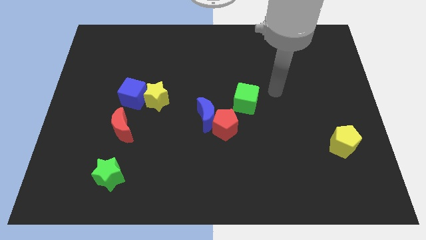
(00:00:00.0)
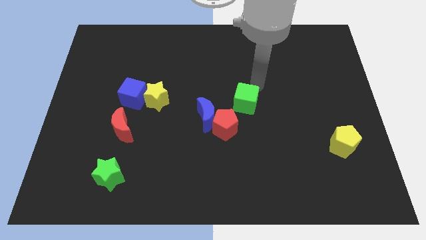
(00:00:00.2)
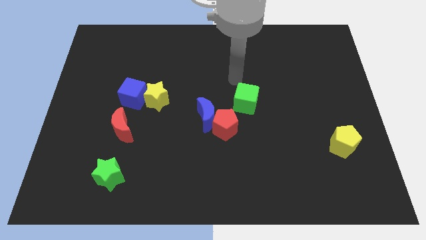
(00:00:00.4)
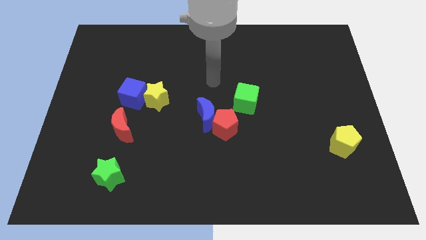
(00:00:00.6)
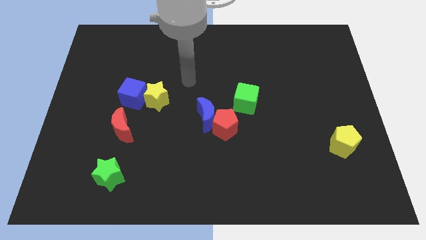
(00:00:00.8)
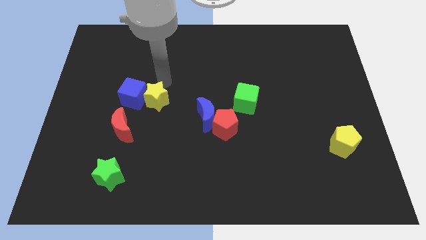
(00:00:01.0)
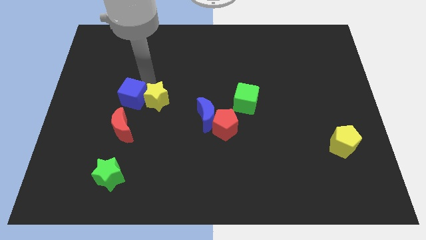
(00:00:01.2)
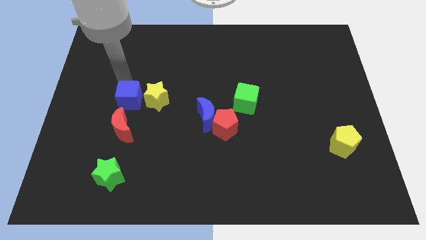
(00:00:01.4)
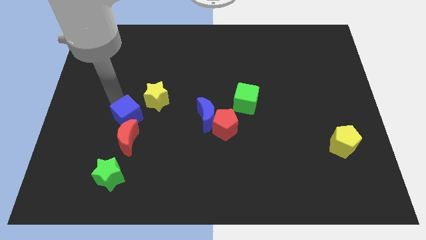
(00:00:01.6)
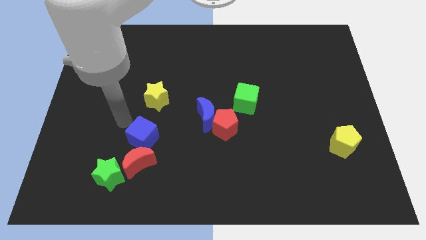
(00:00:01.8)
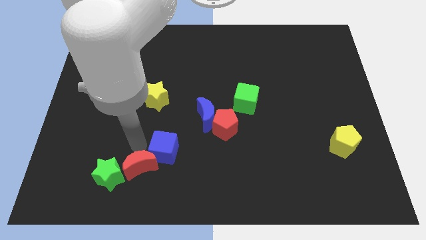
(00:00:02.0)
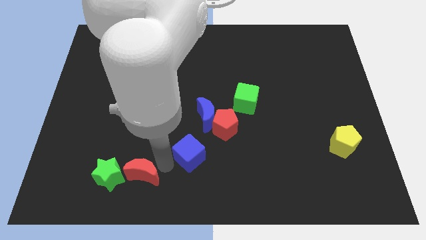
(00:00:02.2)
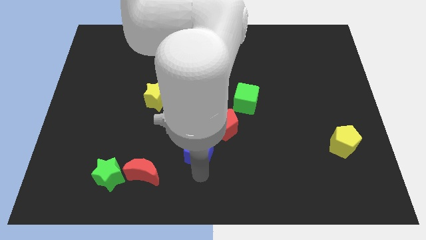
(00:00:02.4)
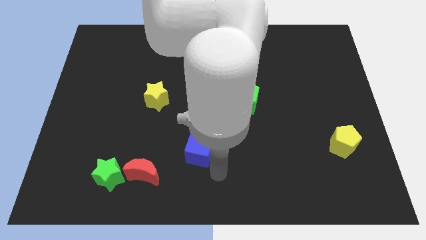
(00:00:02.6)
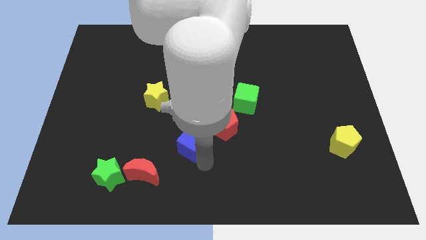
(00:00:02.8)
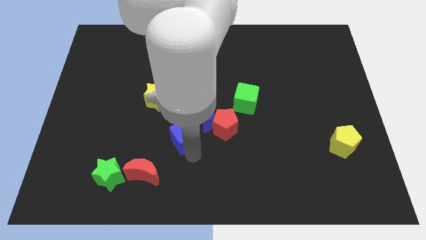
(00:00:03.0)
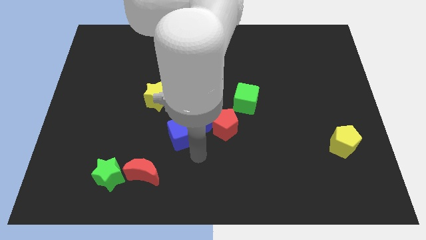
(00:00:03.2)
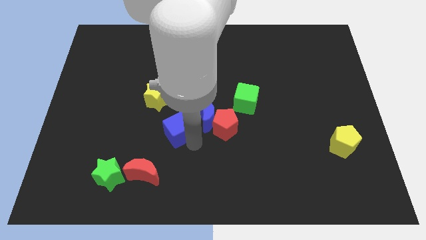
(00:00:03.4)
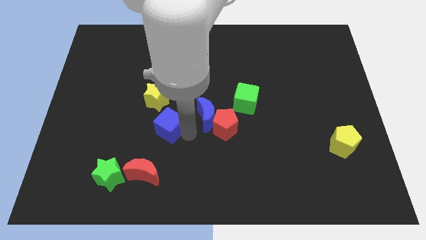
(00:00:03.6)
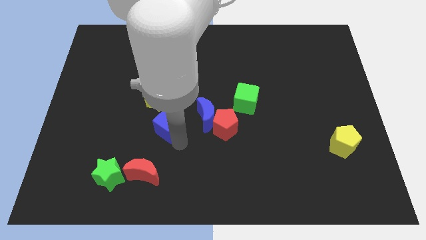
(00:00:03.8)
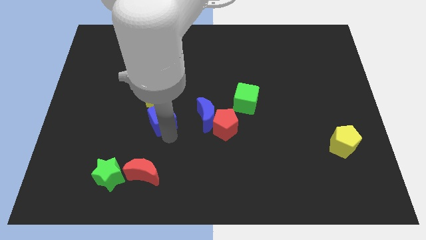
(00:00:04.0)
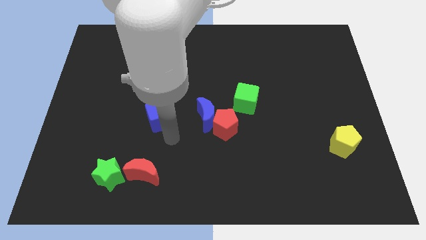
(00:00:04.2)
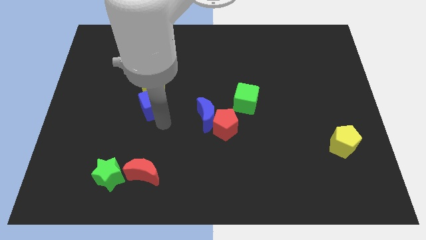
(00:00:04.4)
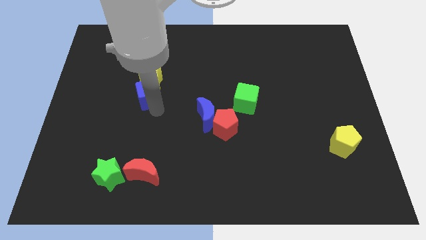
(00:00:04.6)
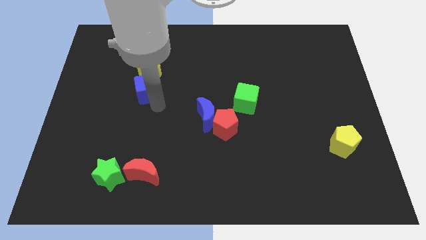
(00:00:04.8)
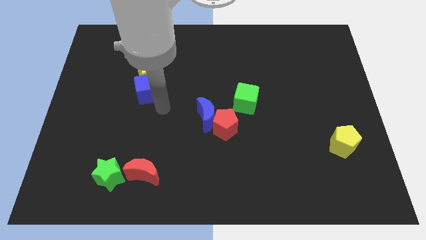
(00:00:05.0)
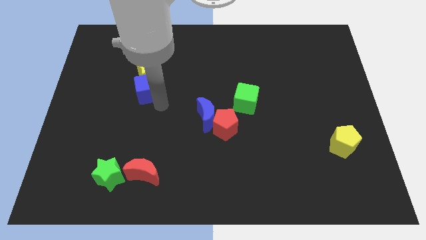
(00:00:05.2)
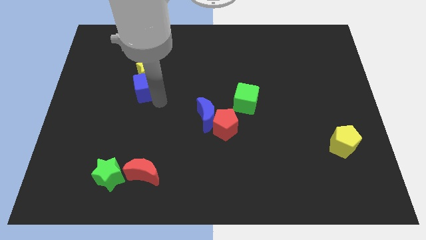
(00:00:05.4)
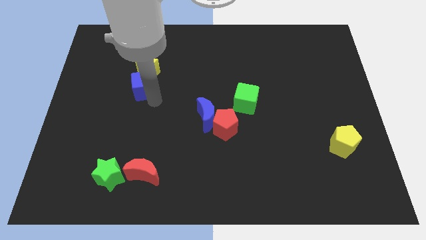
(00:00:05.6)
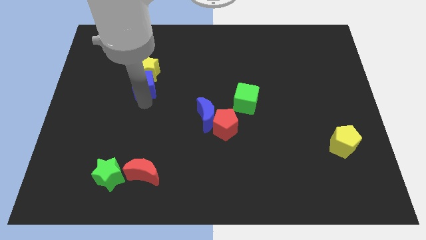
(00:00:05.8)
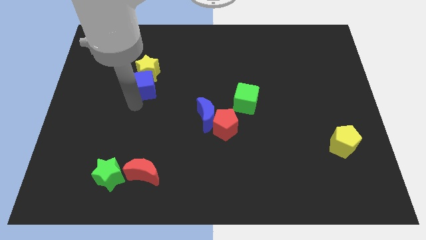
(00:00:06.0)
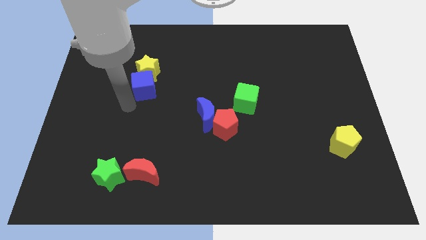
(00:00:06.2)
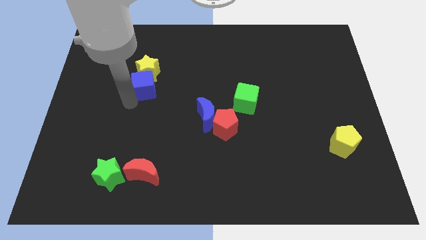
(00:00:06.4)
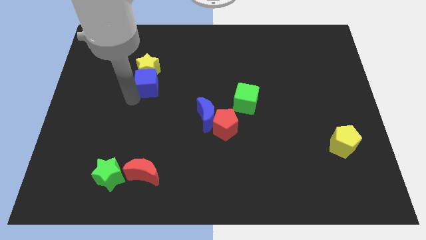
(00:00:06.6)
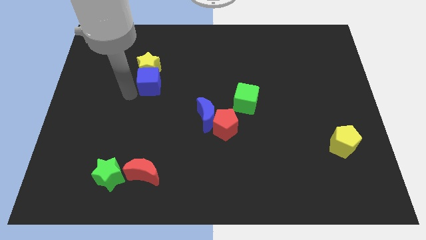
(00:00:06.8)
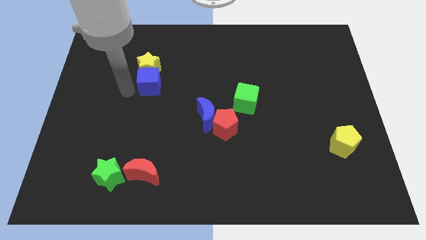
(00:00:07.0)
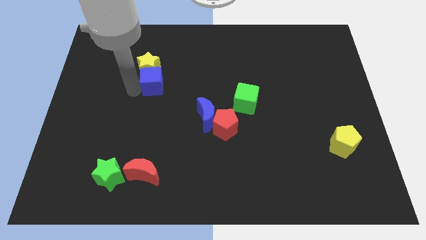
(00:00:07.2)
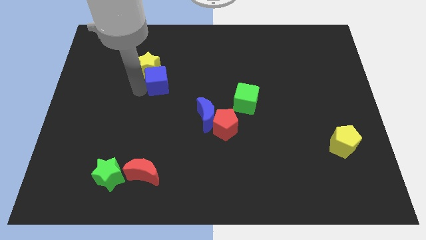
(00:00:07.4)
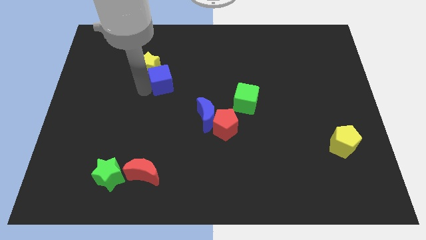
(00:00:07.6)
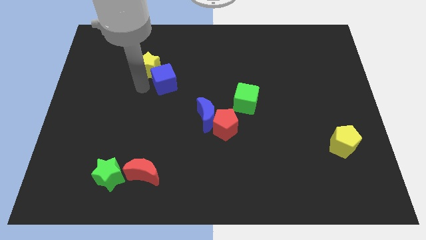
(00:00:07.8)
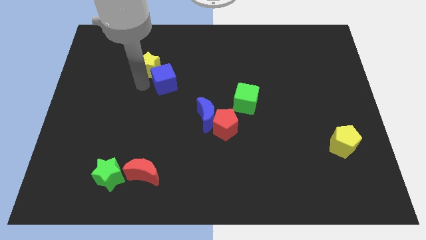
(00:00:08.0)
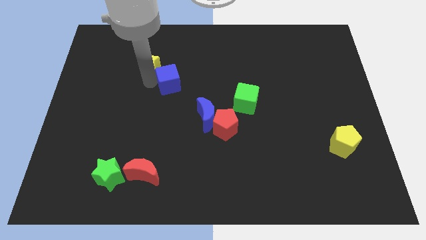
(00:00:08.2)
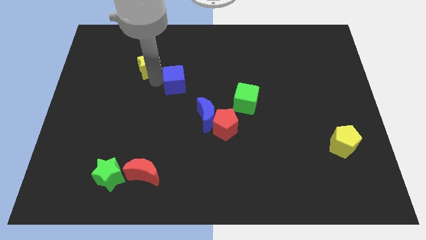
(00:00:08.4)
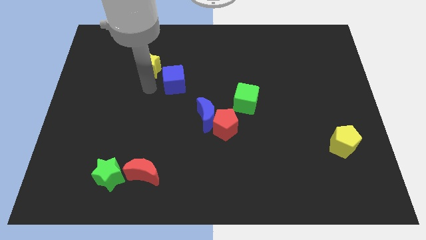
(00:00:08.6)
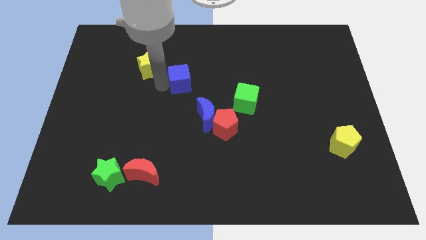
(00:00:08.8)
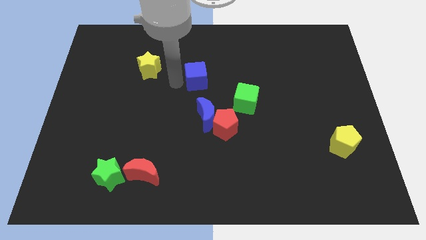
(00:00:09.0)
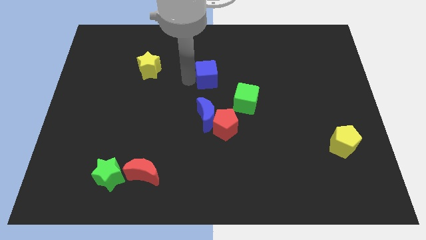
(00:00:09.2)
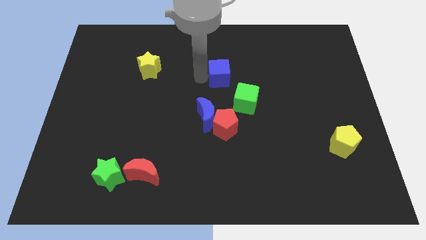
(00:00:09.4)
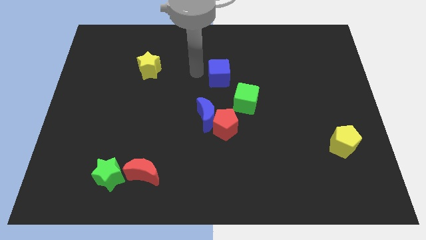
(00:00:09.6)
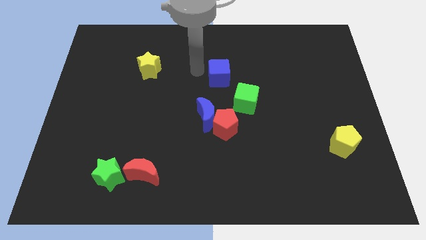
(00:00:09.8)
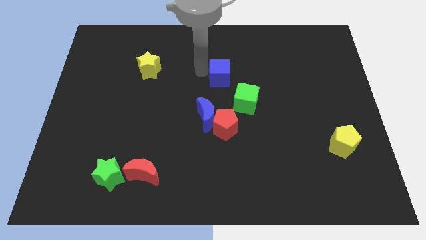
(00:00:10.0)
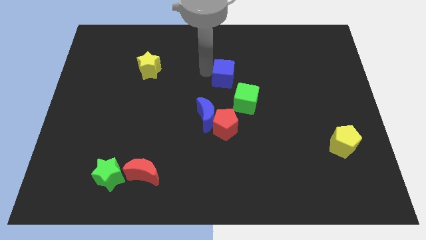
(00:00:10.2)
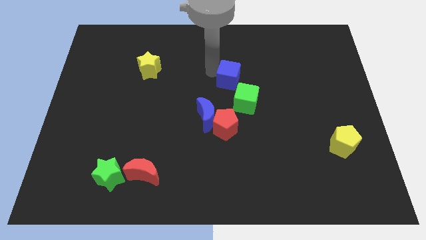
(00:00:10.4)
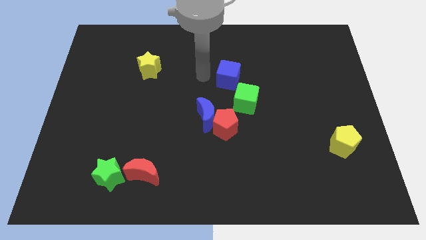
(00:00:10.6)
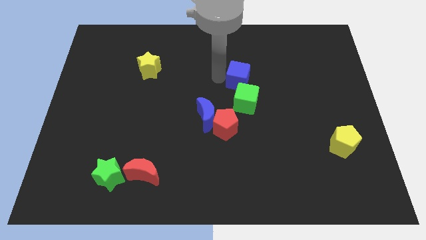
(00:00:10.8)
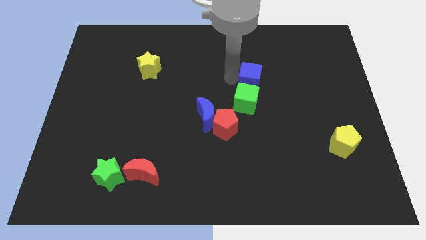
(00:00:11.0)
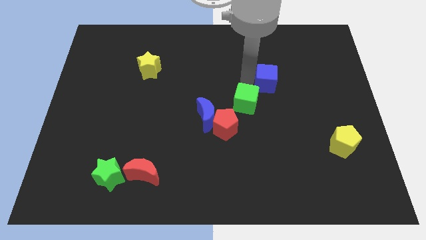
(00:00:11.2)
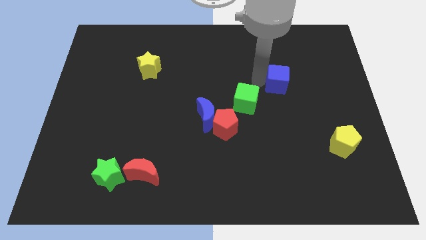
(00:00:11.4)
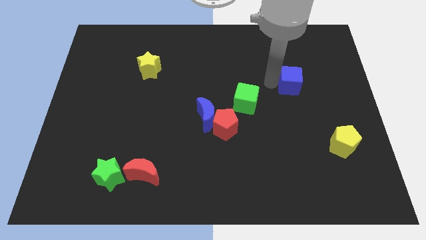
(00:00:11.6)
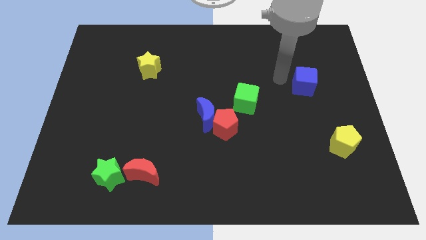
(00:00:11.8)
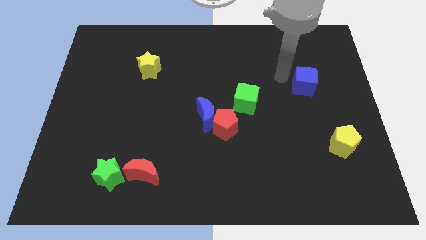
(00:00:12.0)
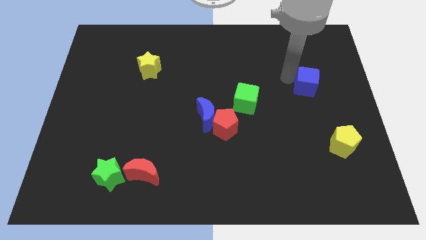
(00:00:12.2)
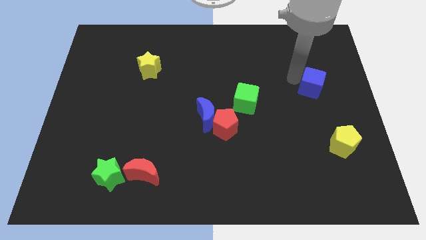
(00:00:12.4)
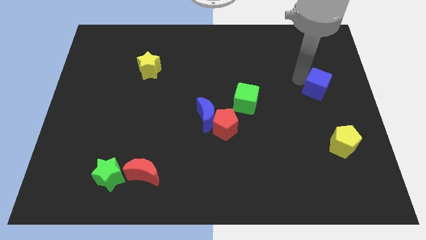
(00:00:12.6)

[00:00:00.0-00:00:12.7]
move the blue cube to the center right

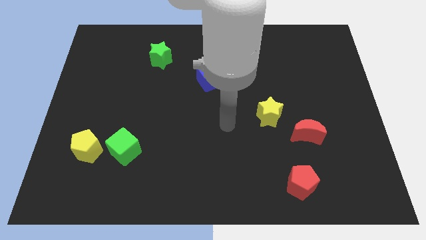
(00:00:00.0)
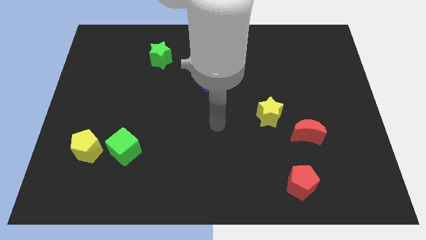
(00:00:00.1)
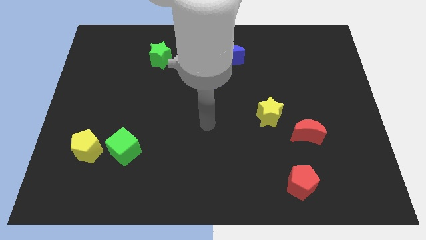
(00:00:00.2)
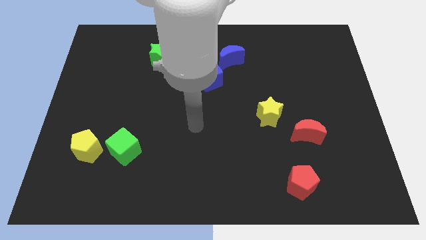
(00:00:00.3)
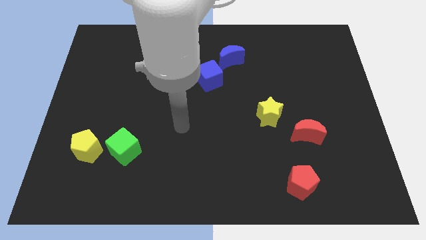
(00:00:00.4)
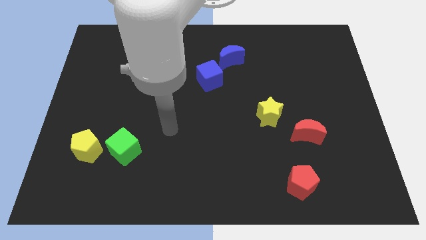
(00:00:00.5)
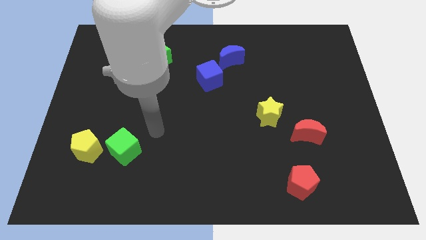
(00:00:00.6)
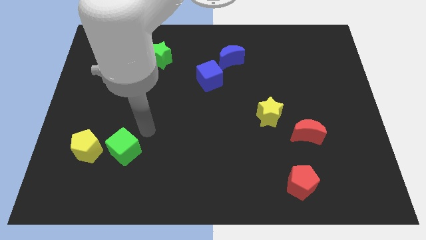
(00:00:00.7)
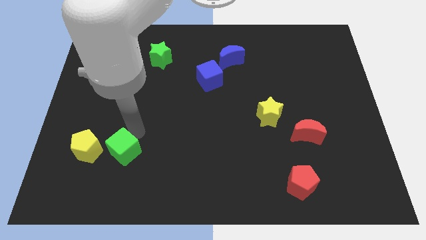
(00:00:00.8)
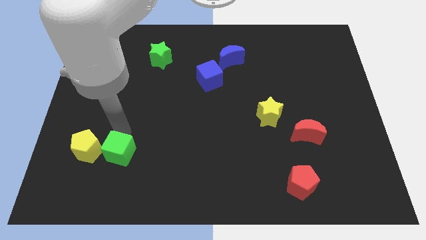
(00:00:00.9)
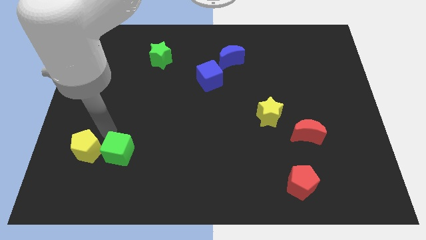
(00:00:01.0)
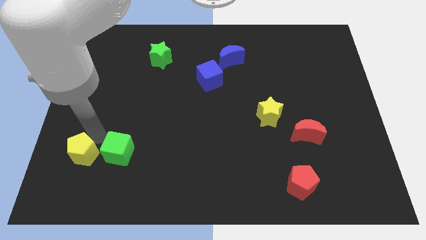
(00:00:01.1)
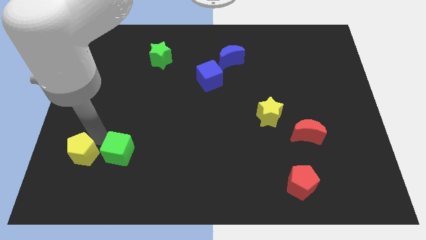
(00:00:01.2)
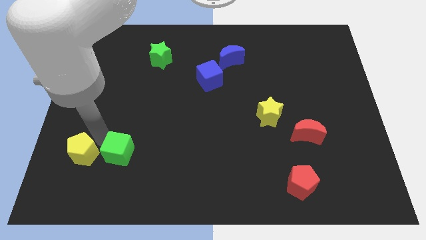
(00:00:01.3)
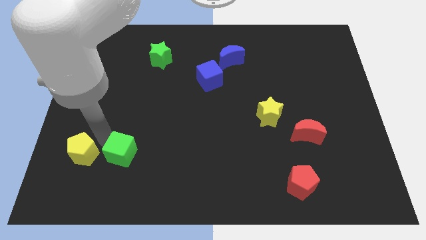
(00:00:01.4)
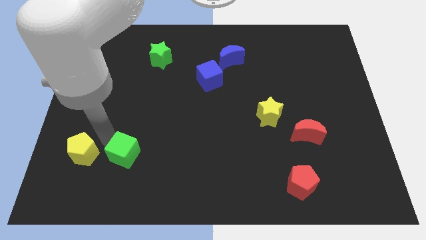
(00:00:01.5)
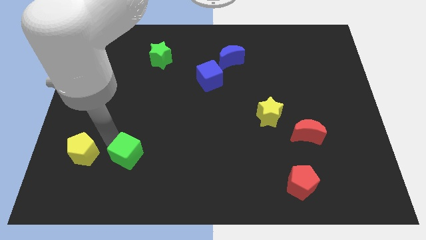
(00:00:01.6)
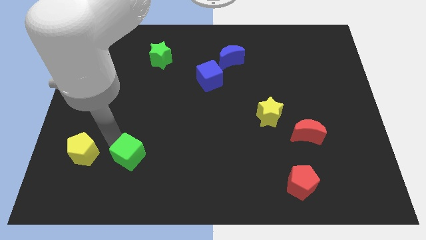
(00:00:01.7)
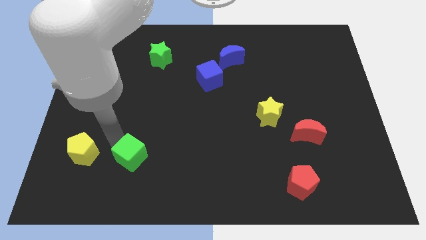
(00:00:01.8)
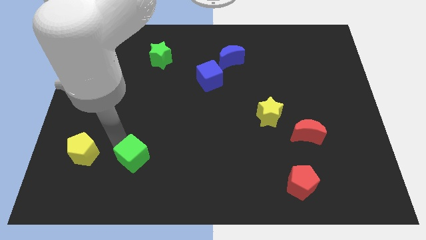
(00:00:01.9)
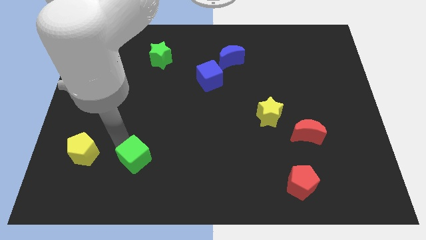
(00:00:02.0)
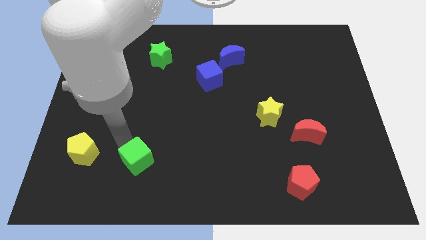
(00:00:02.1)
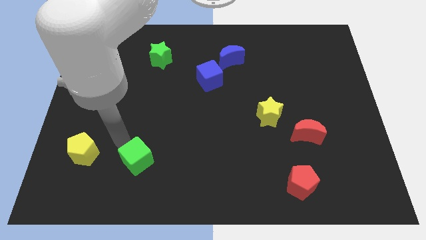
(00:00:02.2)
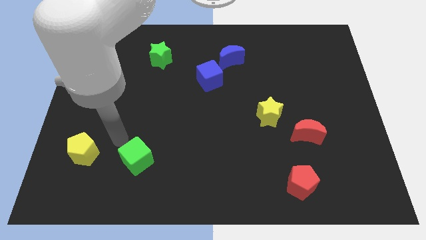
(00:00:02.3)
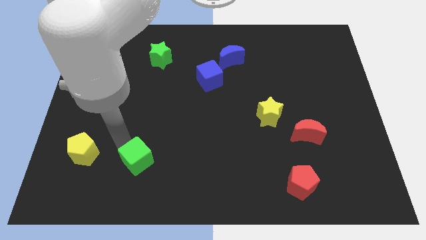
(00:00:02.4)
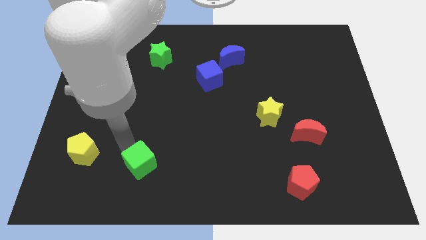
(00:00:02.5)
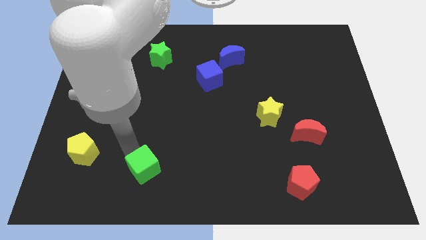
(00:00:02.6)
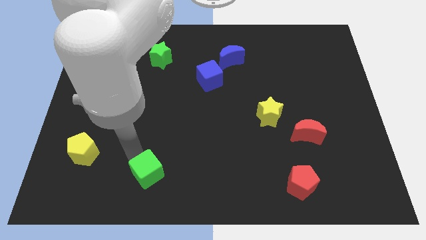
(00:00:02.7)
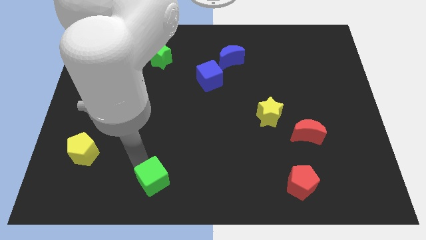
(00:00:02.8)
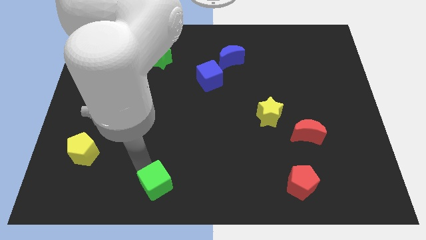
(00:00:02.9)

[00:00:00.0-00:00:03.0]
slide the green cube to the bottom side
